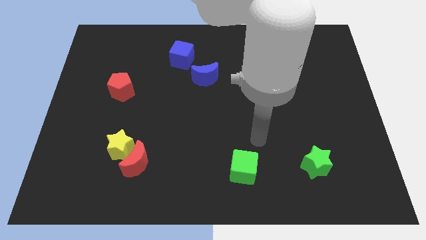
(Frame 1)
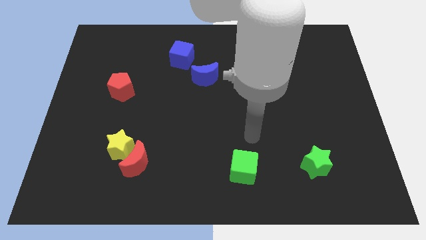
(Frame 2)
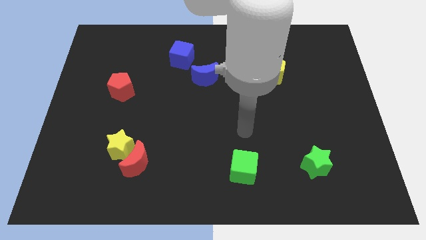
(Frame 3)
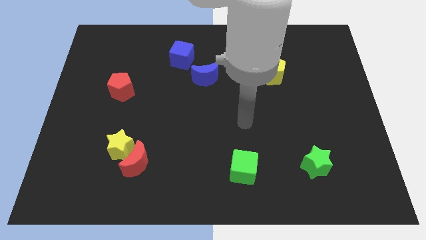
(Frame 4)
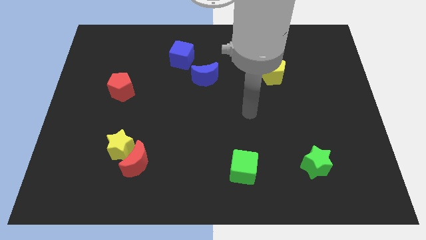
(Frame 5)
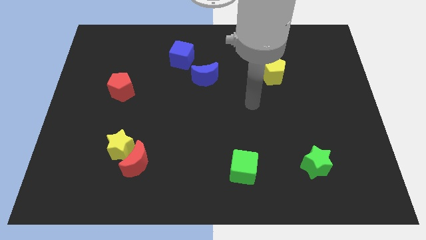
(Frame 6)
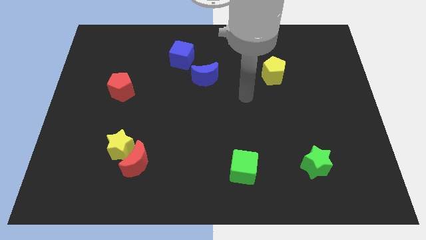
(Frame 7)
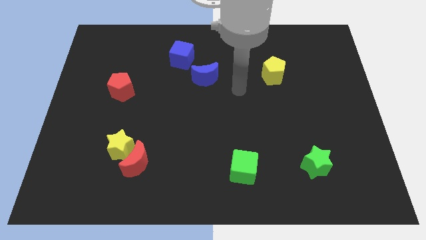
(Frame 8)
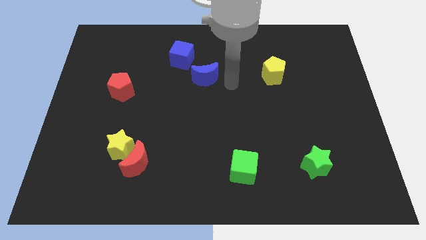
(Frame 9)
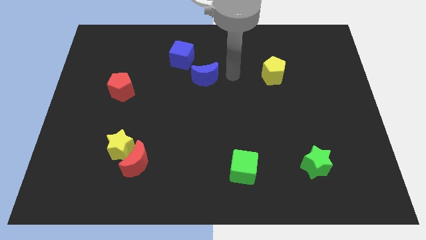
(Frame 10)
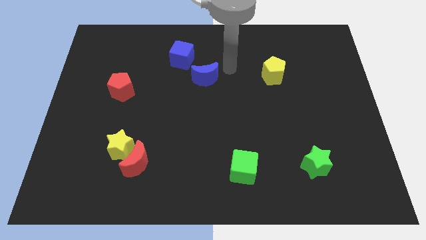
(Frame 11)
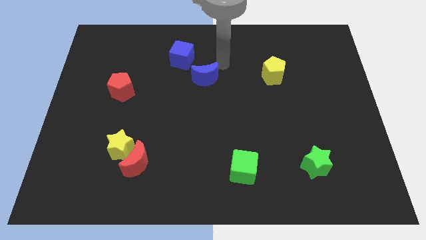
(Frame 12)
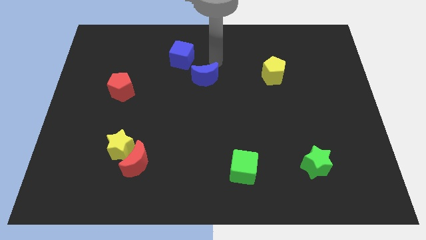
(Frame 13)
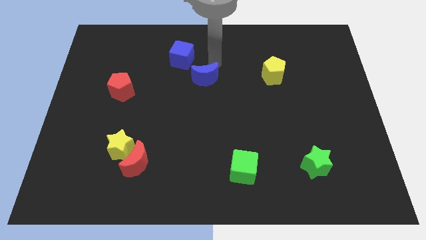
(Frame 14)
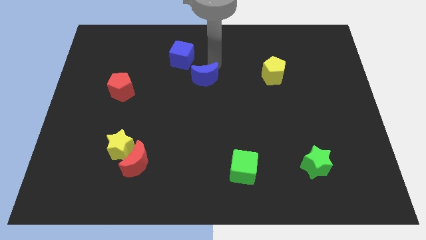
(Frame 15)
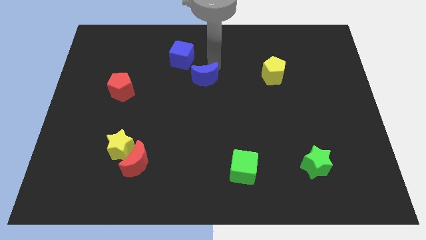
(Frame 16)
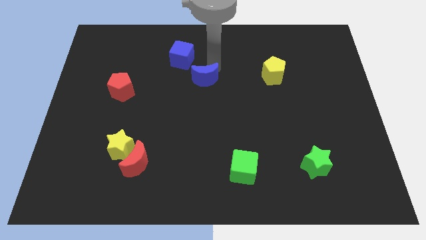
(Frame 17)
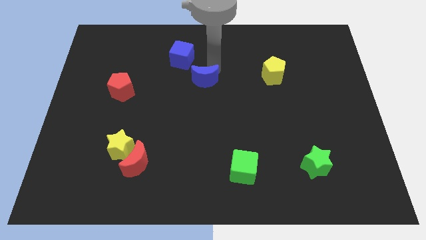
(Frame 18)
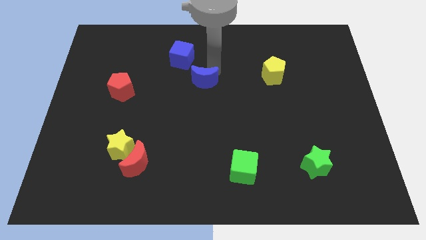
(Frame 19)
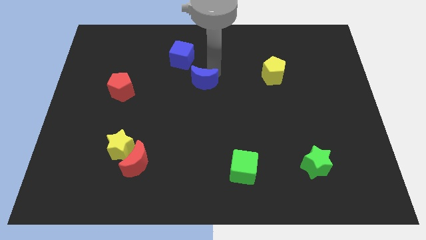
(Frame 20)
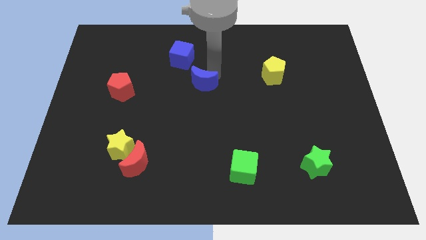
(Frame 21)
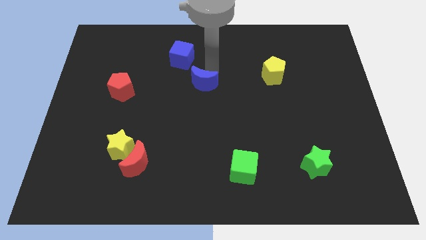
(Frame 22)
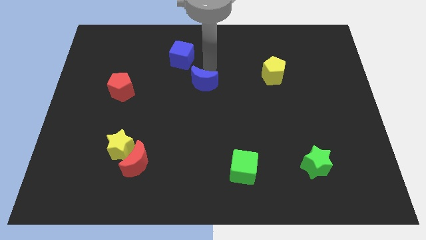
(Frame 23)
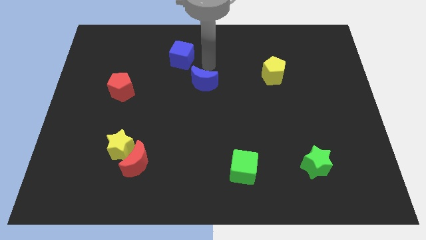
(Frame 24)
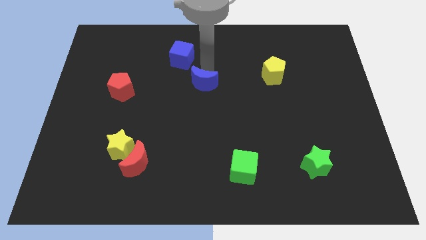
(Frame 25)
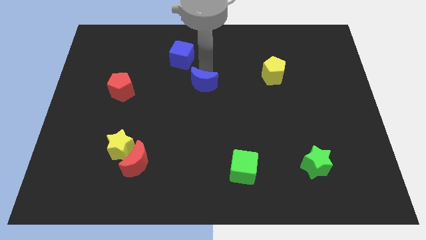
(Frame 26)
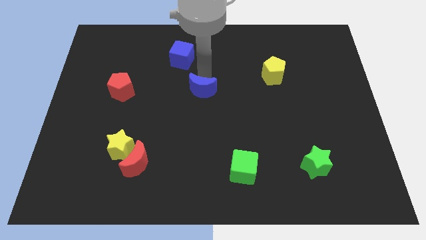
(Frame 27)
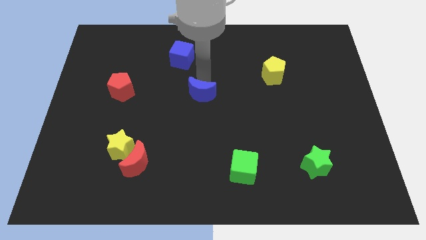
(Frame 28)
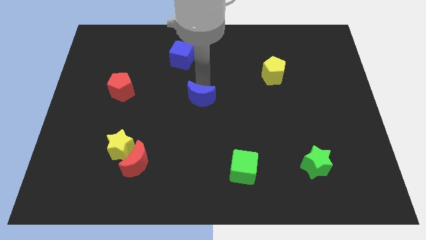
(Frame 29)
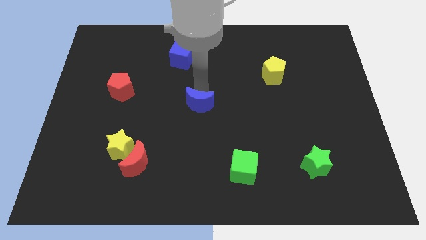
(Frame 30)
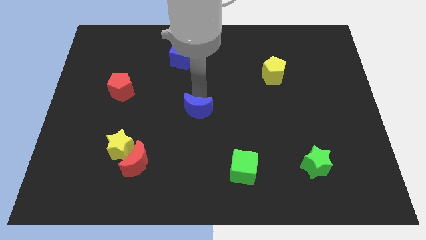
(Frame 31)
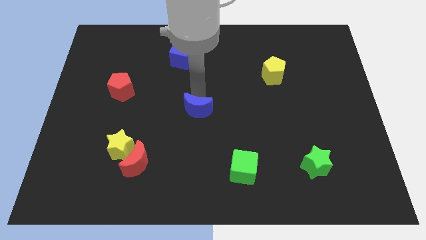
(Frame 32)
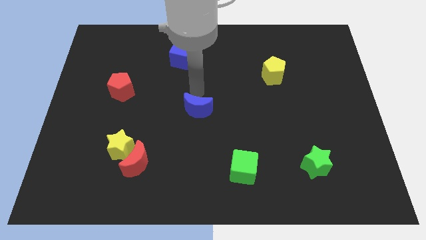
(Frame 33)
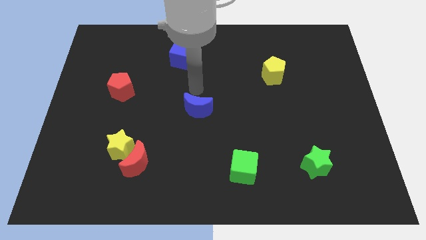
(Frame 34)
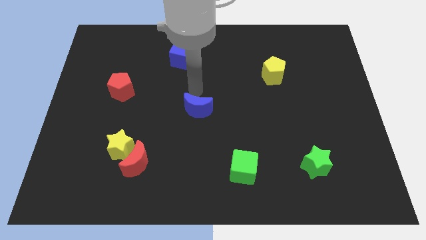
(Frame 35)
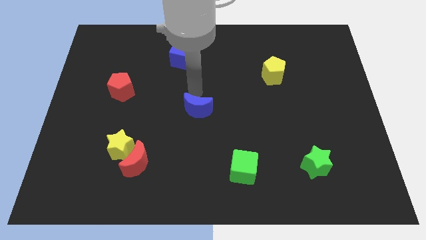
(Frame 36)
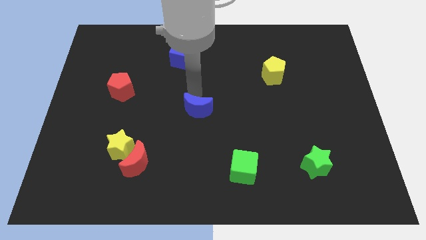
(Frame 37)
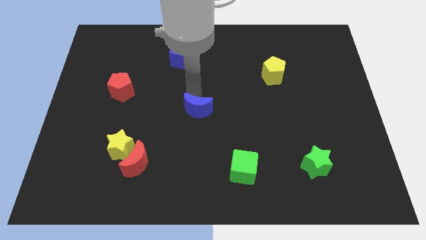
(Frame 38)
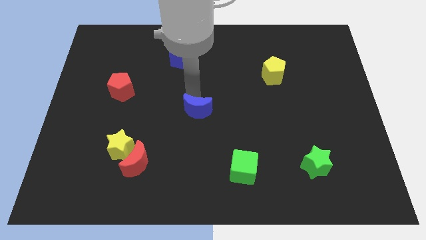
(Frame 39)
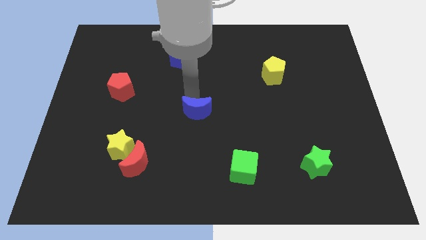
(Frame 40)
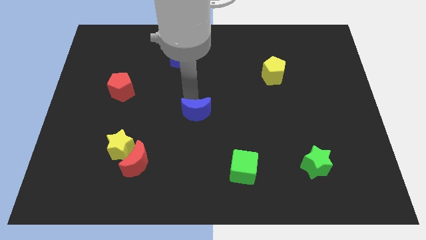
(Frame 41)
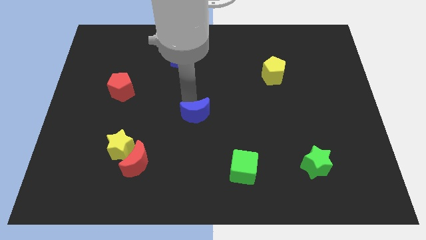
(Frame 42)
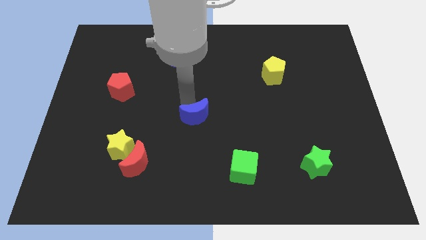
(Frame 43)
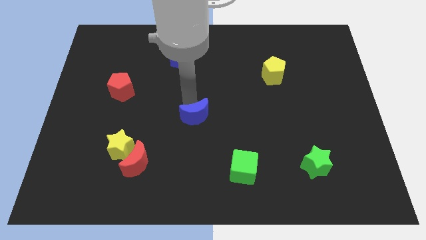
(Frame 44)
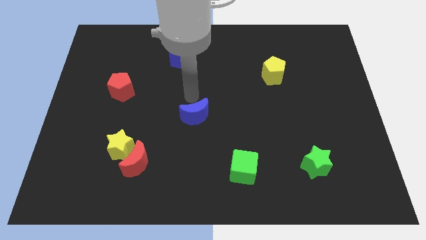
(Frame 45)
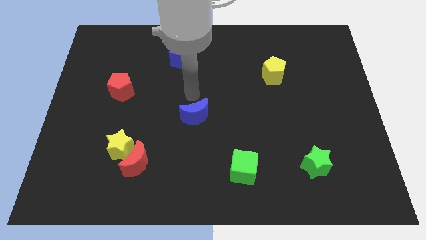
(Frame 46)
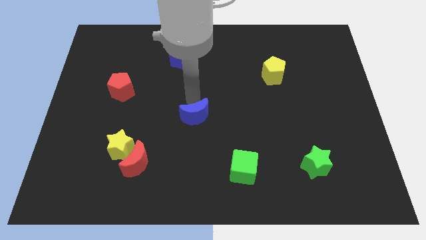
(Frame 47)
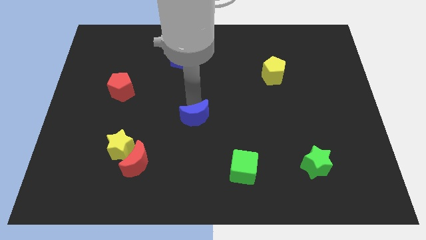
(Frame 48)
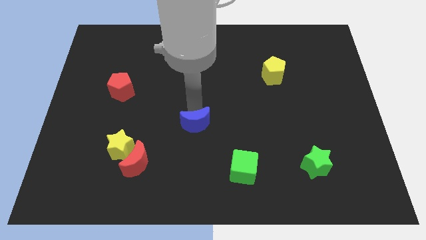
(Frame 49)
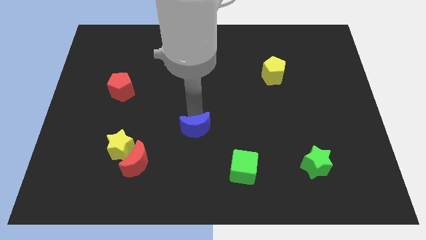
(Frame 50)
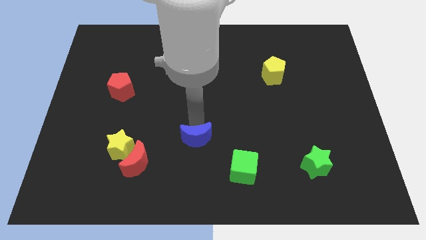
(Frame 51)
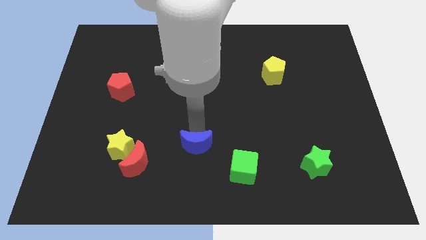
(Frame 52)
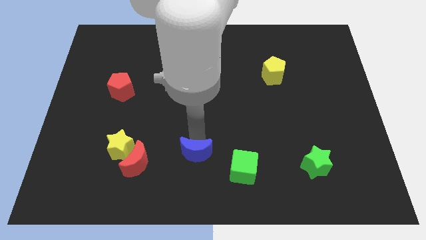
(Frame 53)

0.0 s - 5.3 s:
push the blue moon just left of the green cube
